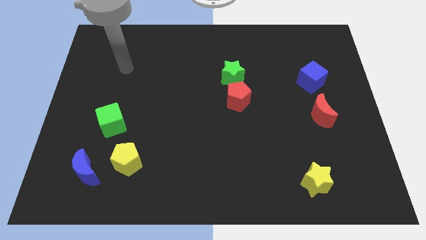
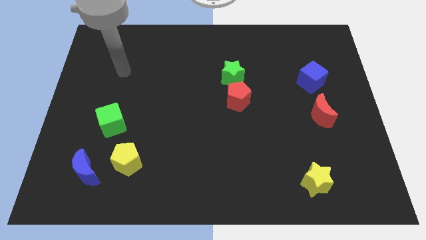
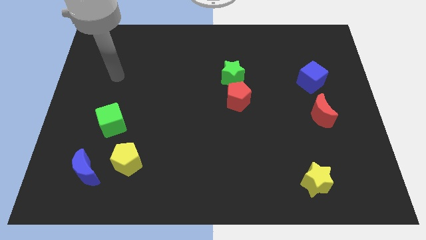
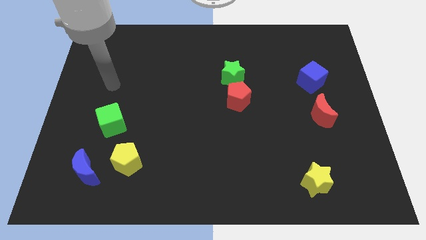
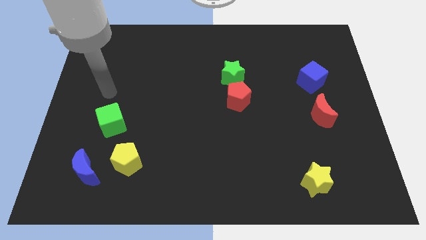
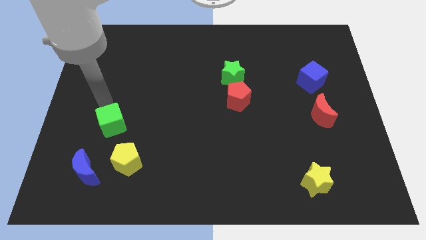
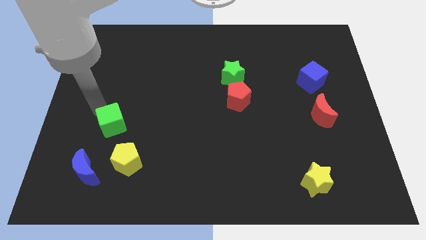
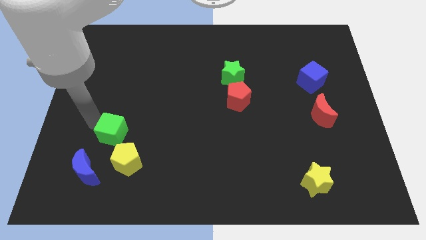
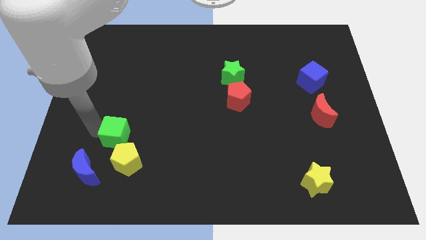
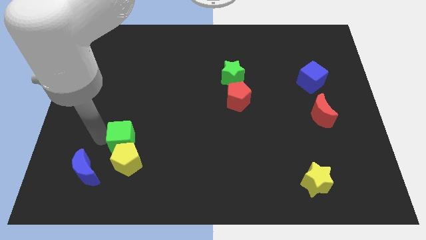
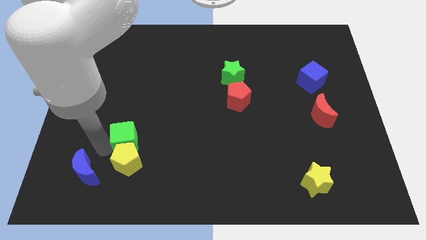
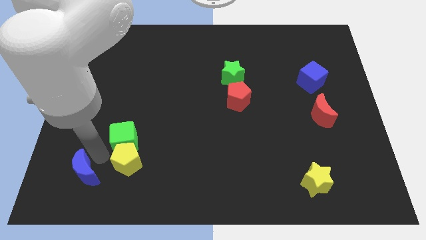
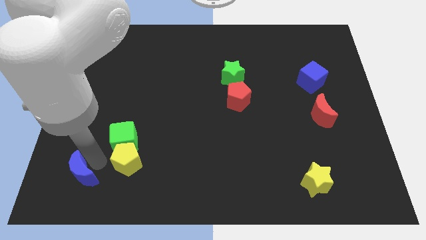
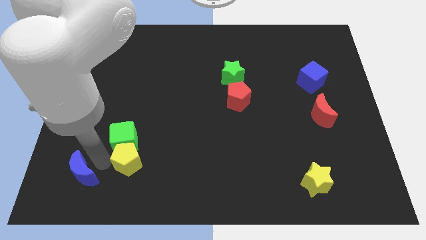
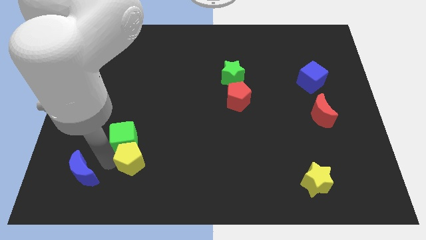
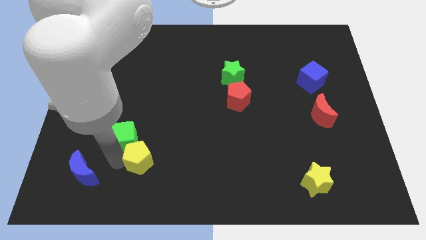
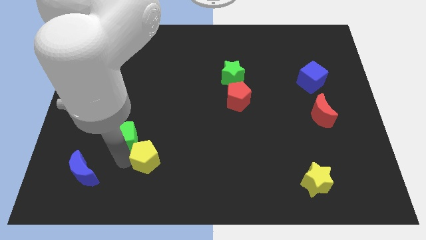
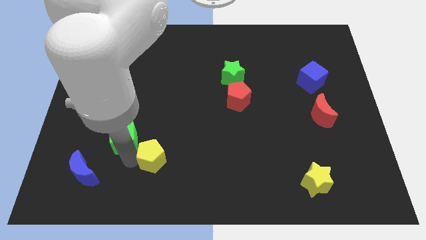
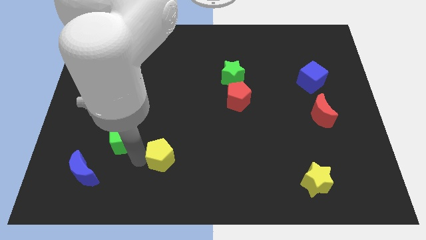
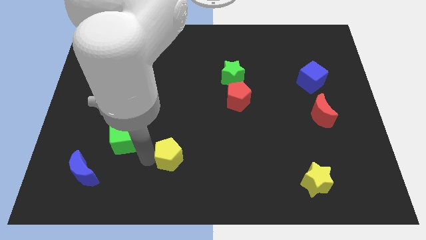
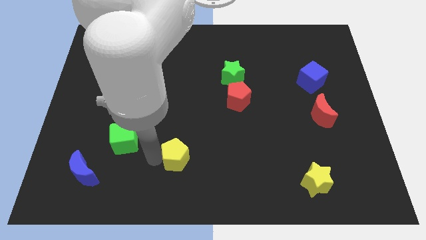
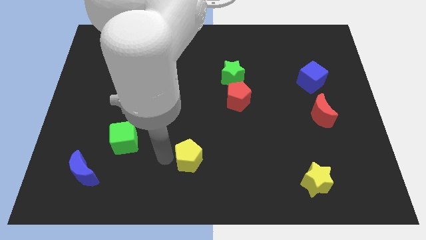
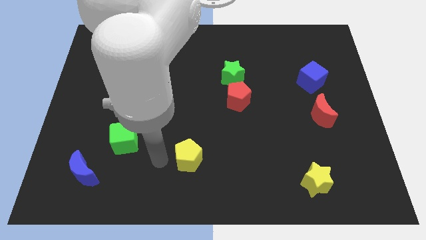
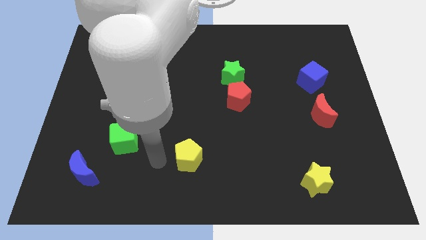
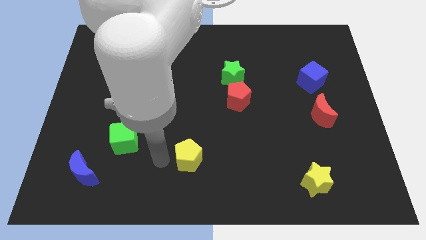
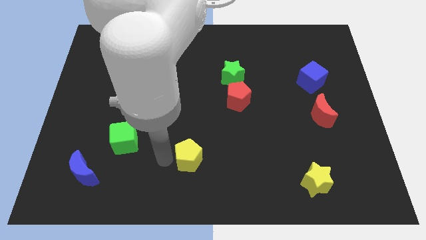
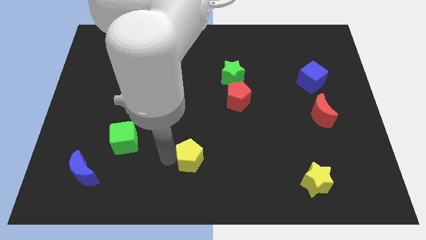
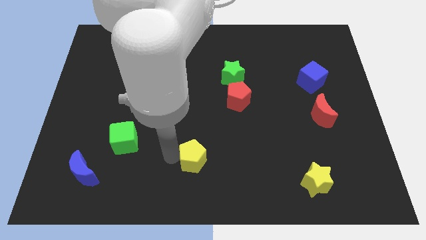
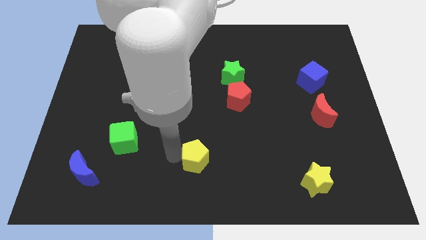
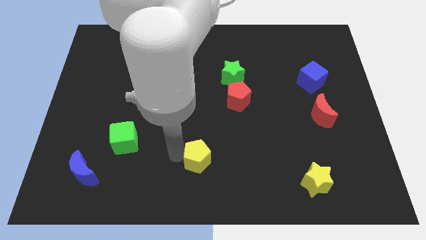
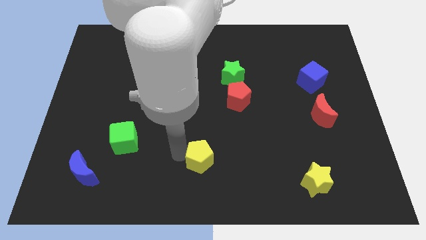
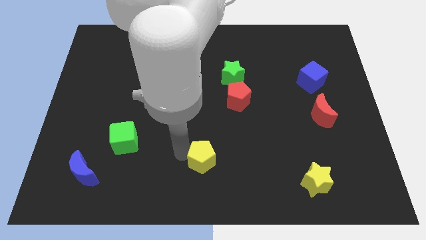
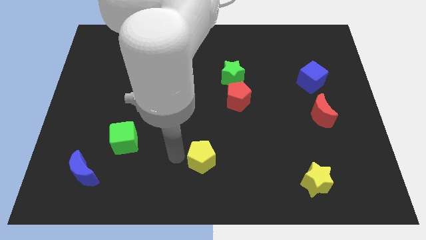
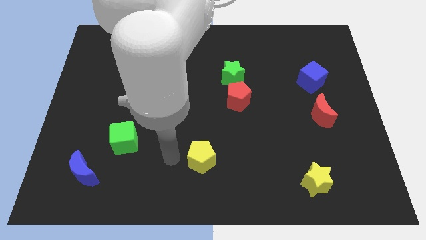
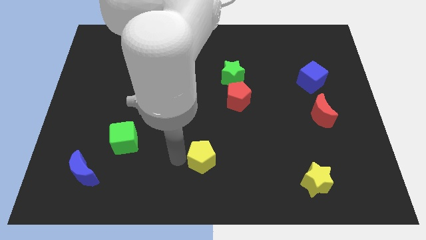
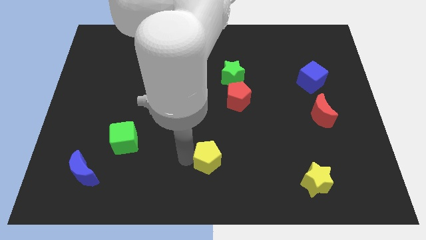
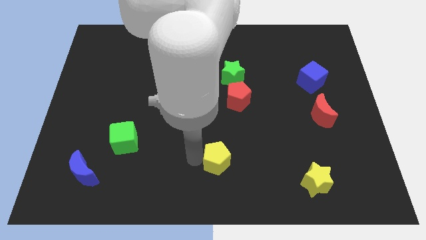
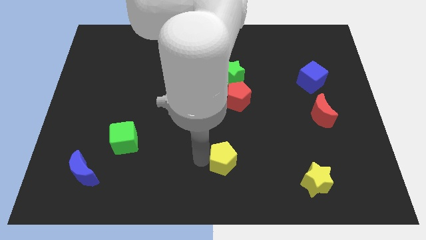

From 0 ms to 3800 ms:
move the yellow pentagon to the right

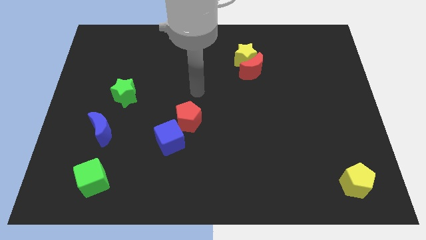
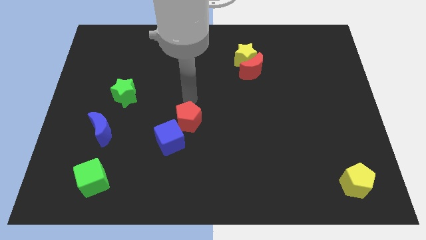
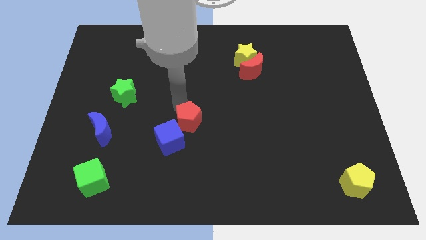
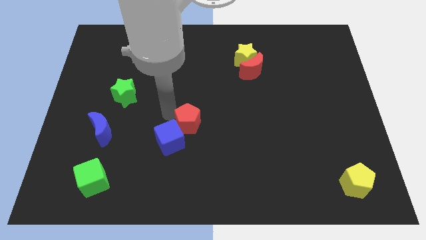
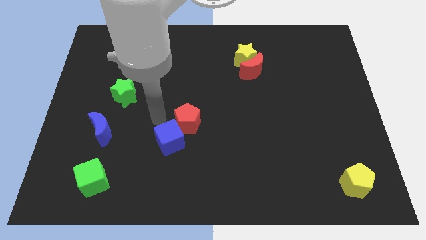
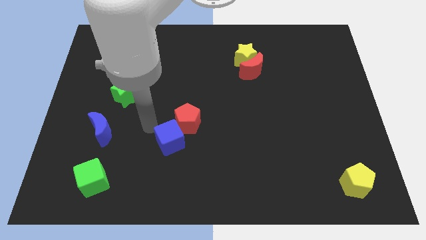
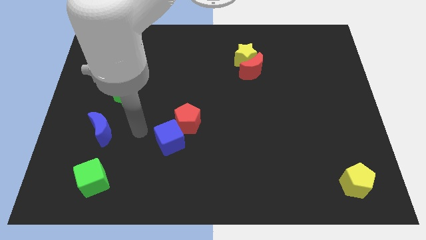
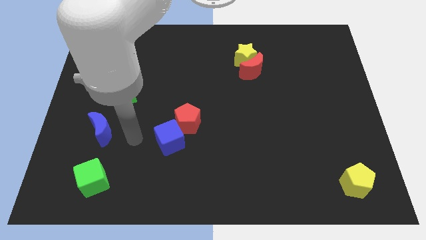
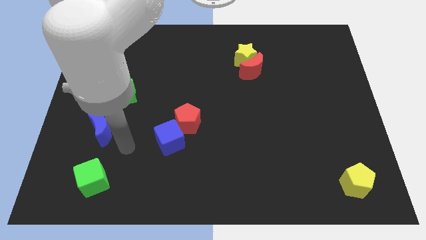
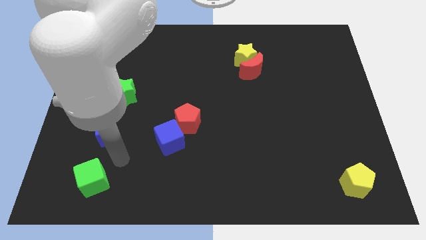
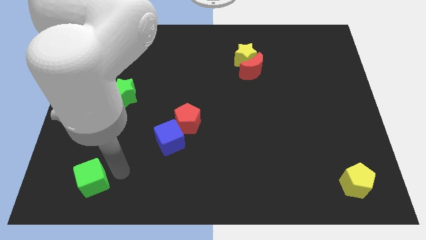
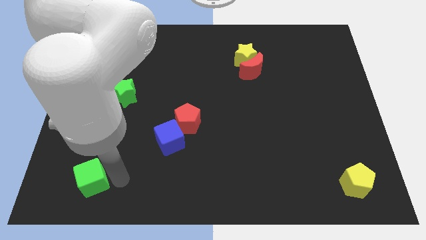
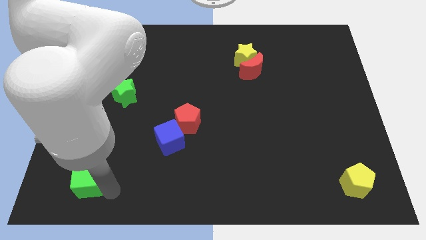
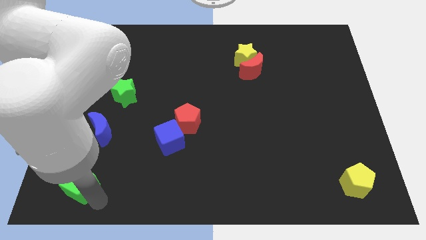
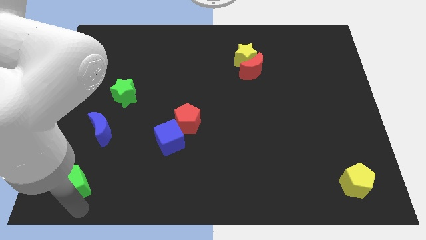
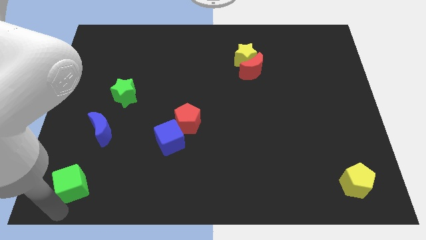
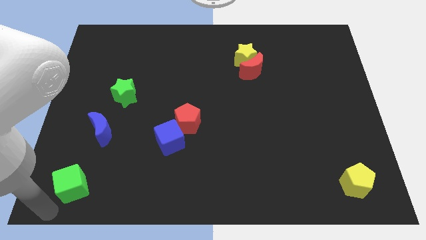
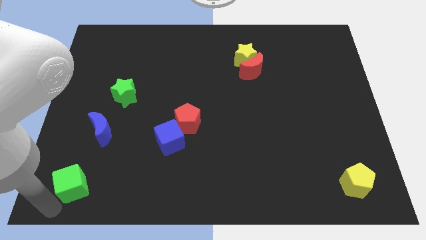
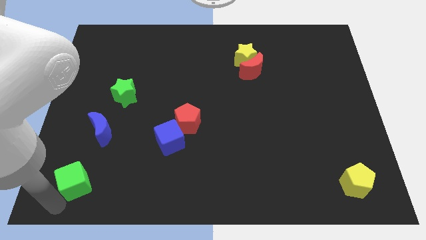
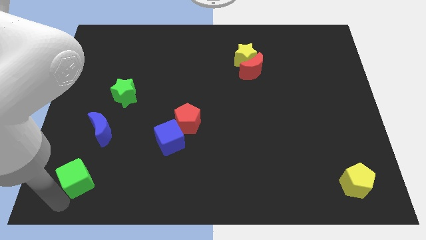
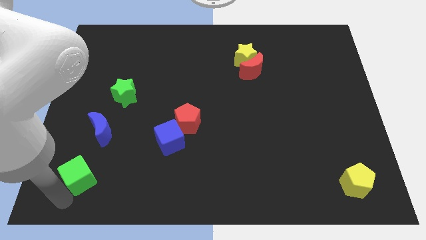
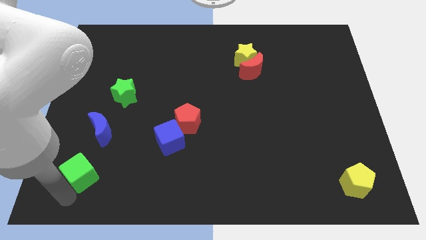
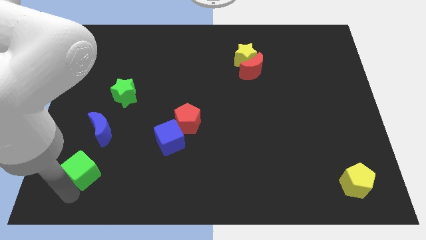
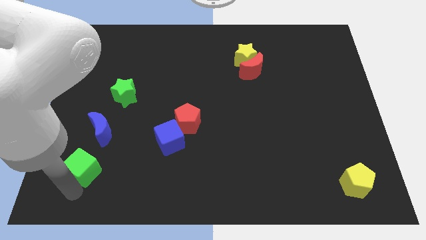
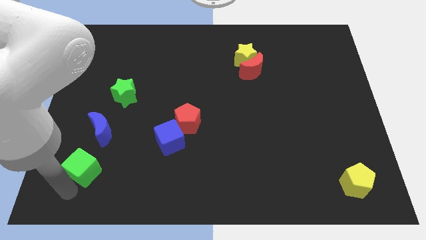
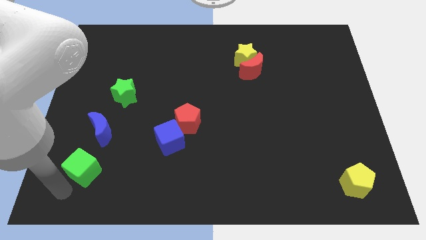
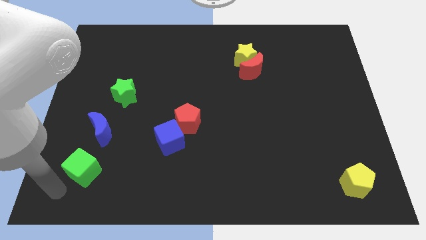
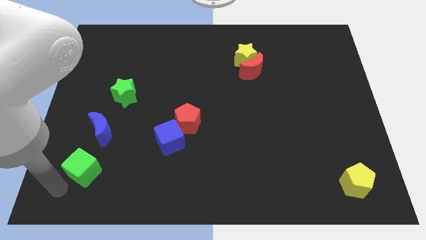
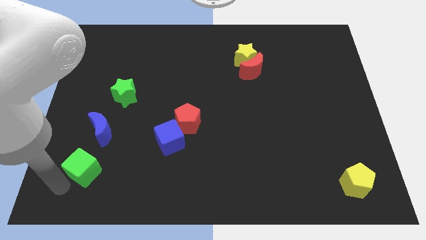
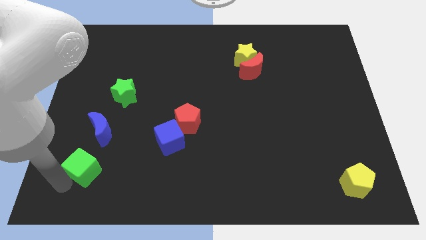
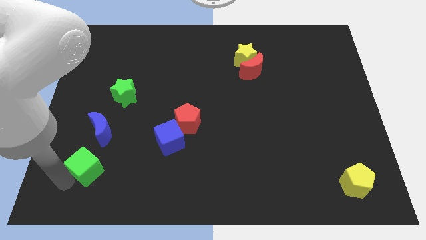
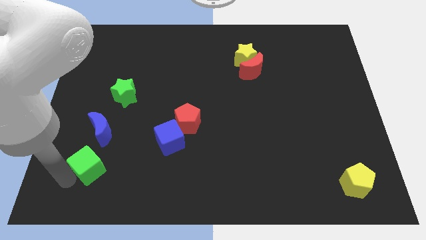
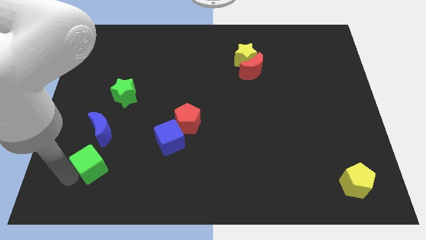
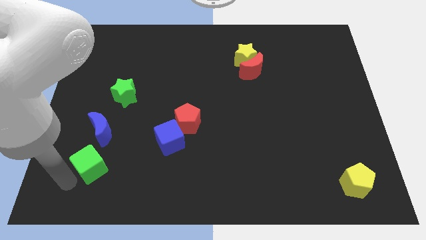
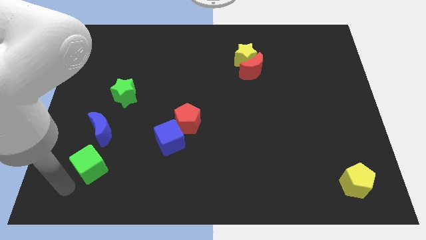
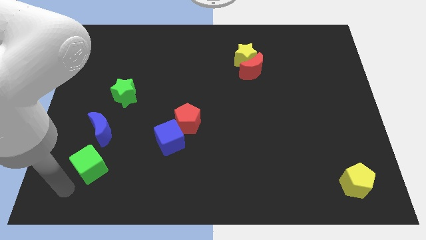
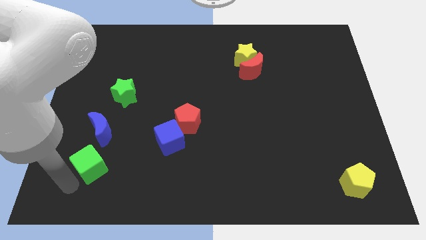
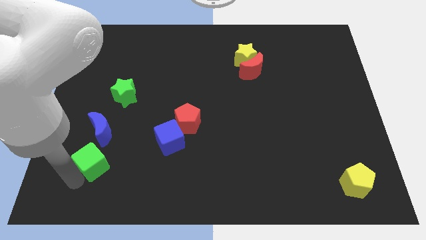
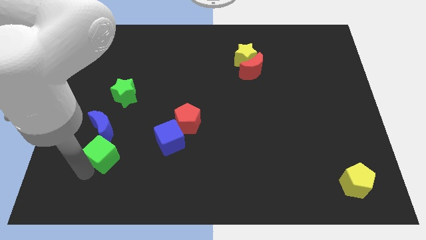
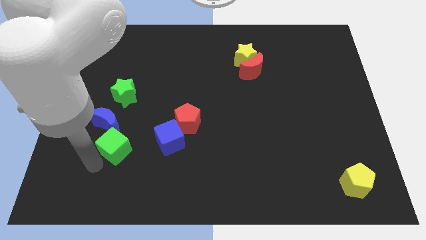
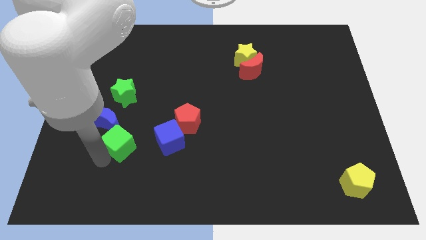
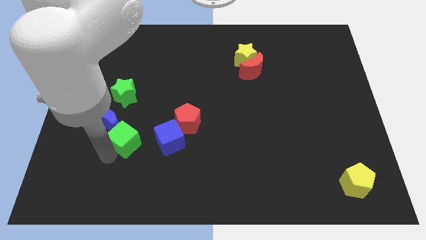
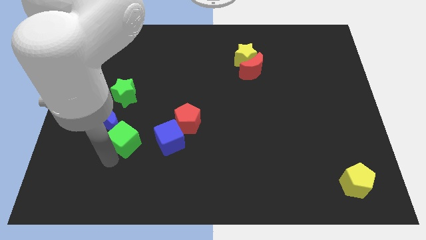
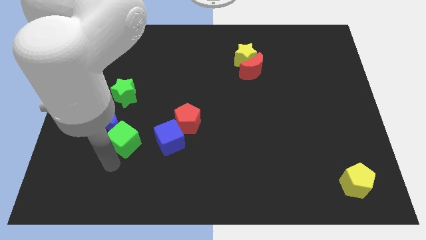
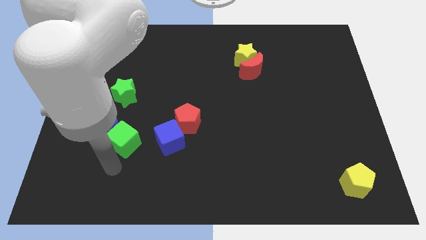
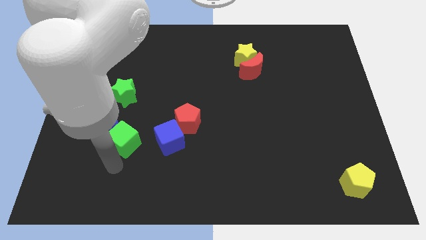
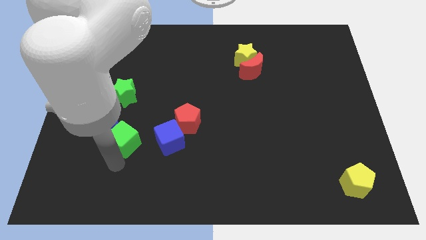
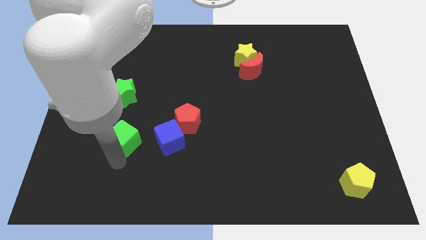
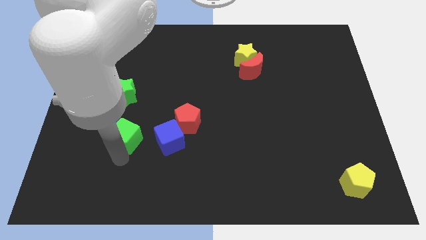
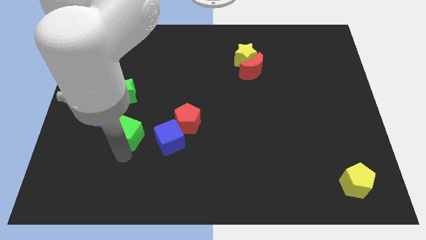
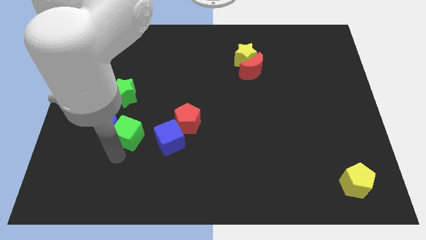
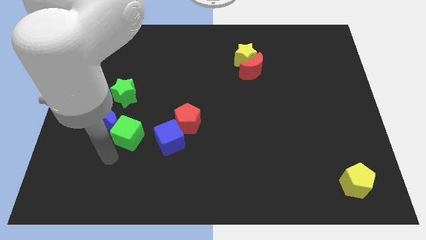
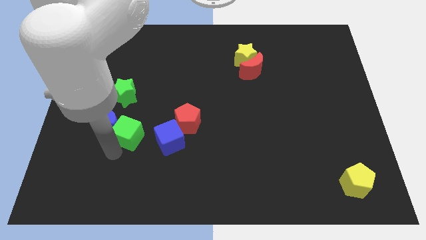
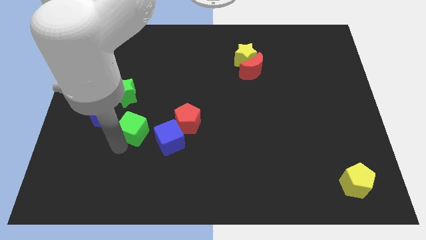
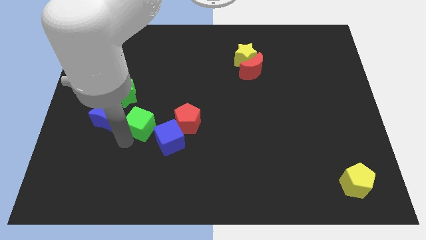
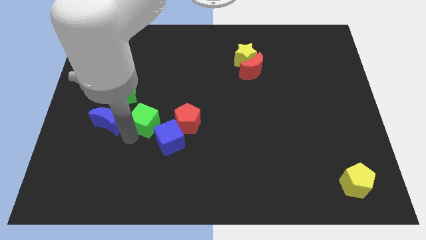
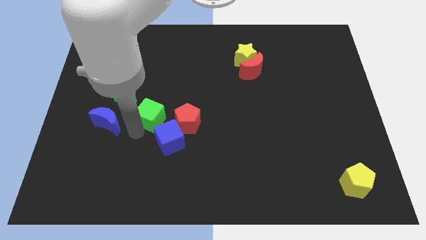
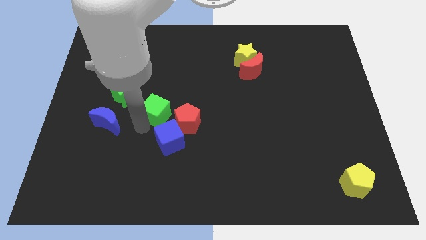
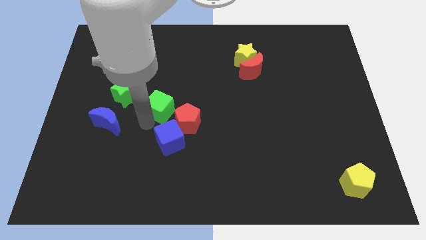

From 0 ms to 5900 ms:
move the green cube up and then right
